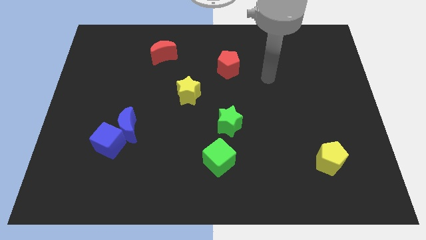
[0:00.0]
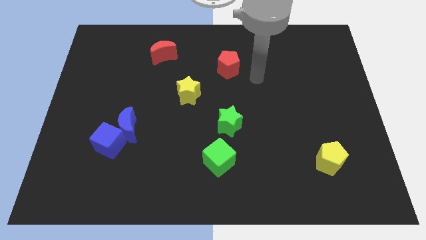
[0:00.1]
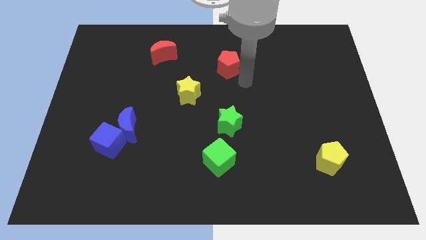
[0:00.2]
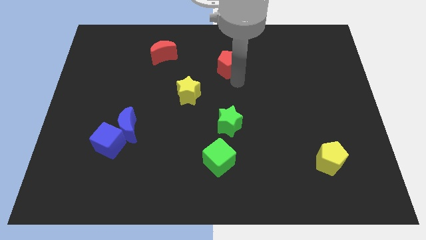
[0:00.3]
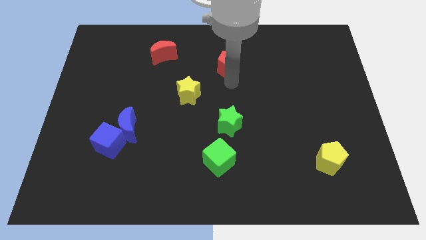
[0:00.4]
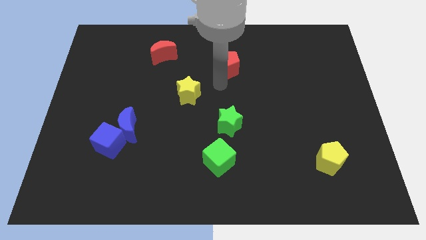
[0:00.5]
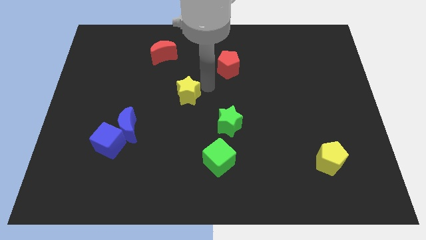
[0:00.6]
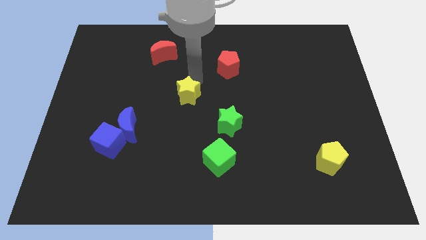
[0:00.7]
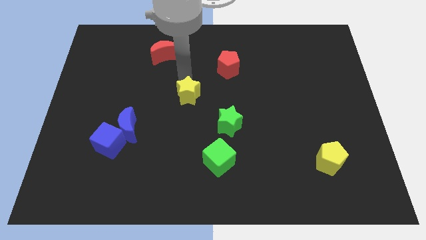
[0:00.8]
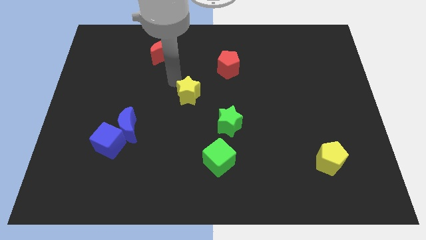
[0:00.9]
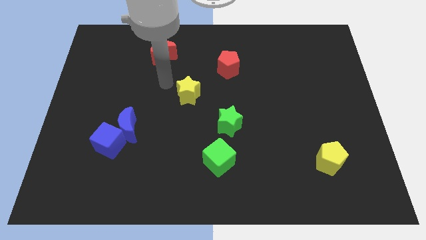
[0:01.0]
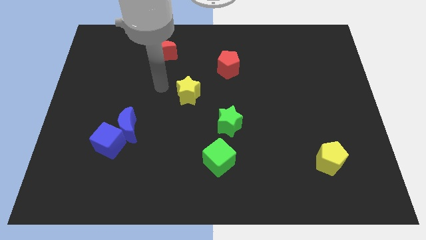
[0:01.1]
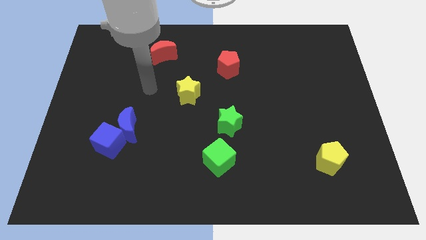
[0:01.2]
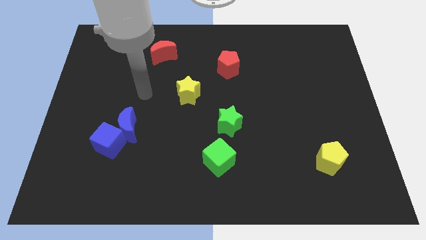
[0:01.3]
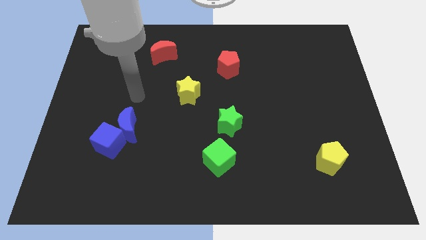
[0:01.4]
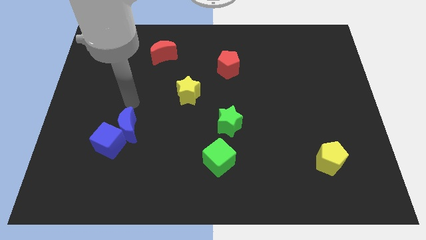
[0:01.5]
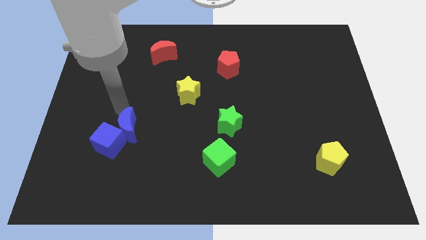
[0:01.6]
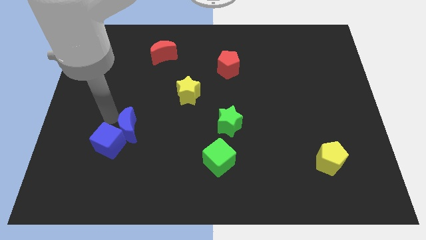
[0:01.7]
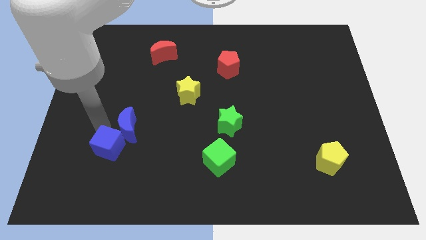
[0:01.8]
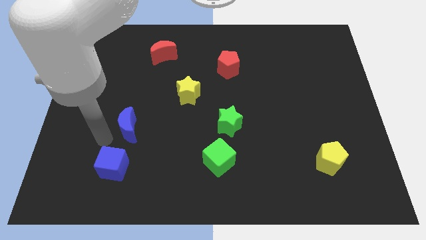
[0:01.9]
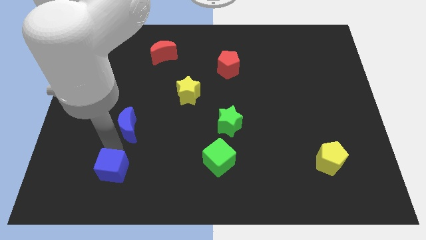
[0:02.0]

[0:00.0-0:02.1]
move the blue moon away from the blue cube

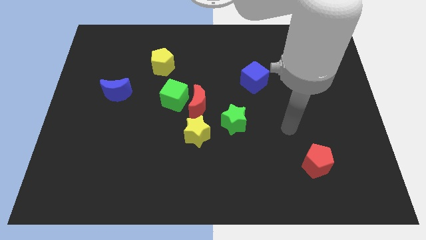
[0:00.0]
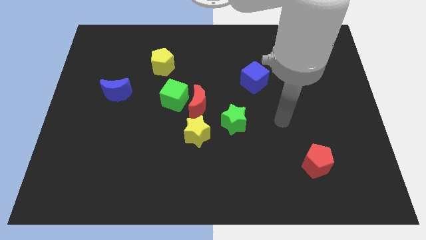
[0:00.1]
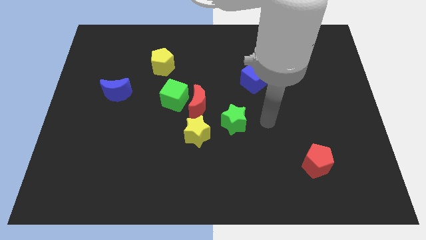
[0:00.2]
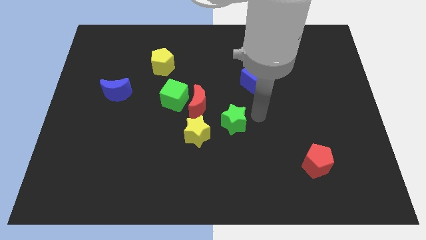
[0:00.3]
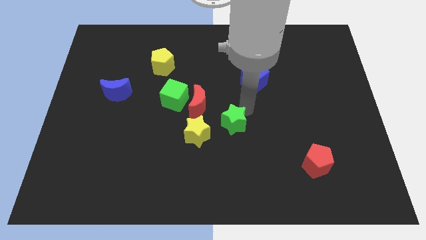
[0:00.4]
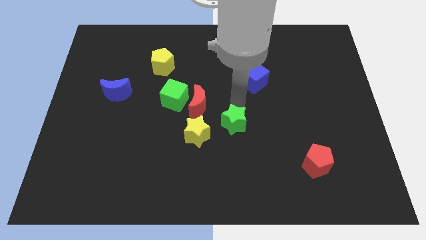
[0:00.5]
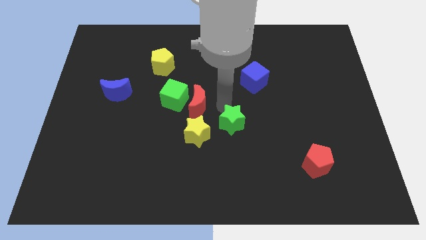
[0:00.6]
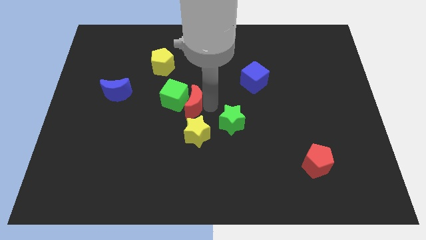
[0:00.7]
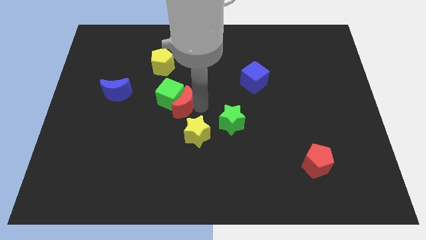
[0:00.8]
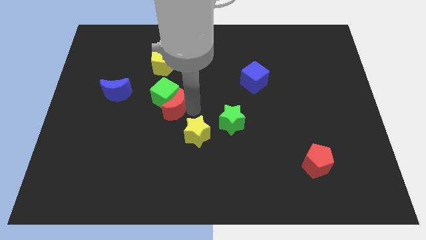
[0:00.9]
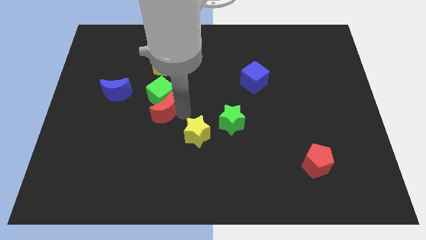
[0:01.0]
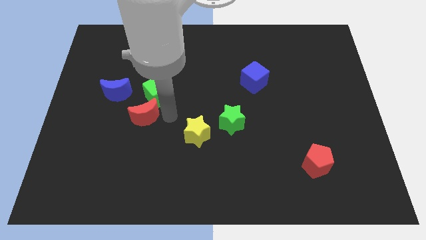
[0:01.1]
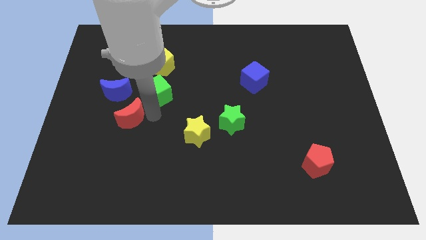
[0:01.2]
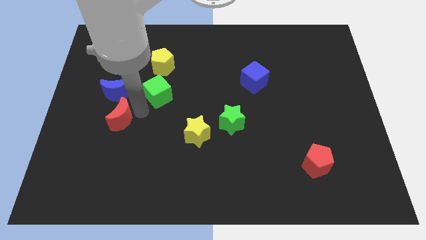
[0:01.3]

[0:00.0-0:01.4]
pull the green cube apart from the red moon

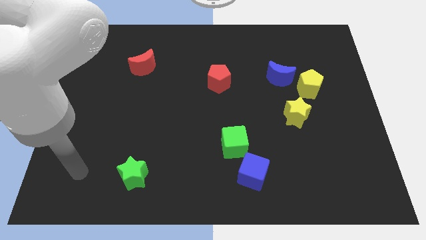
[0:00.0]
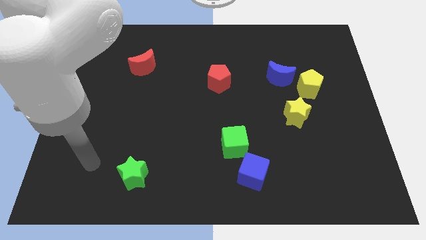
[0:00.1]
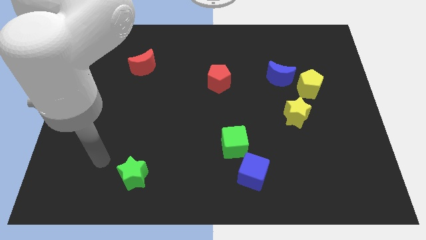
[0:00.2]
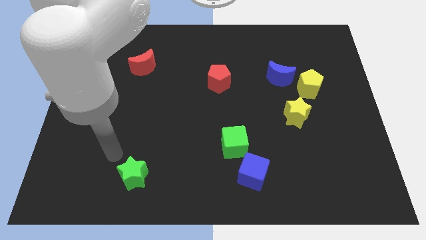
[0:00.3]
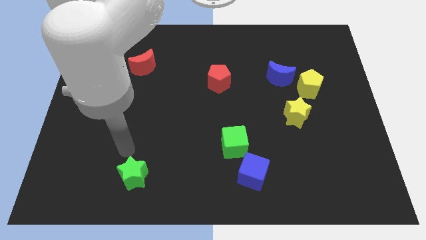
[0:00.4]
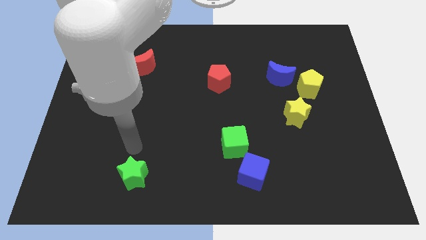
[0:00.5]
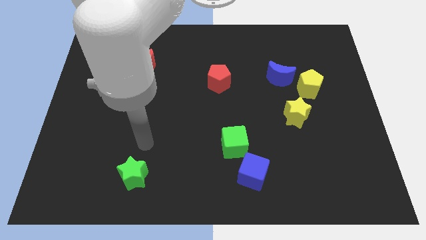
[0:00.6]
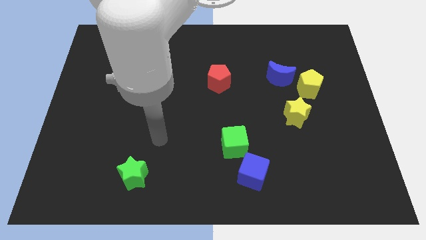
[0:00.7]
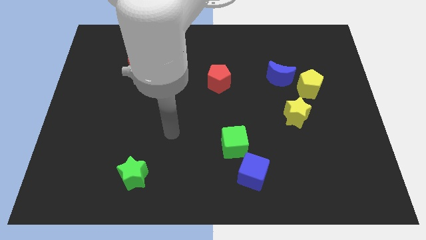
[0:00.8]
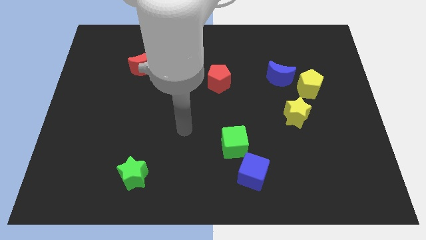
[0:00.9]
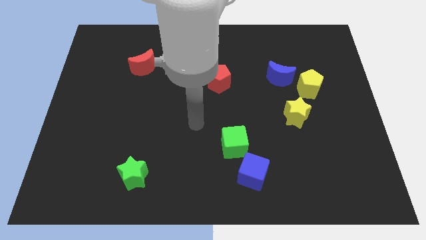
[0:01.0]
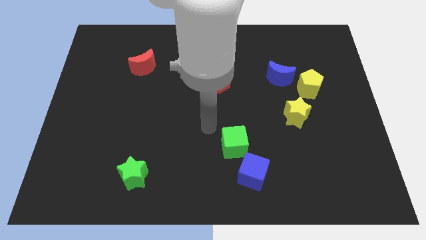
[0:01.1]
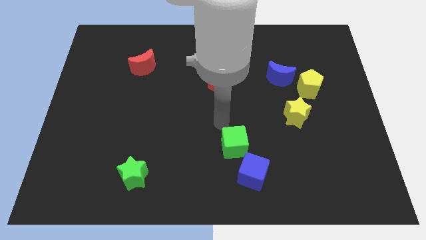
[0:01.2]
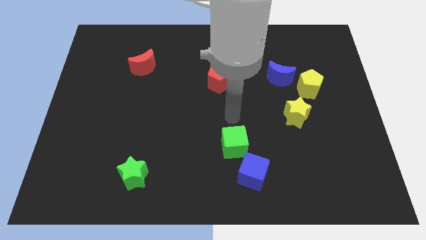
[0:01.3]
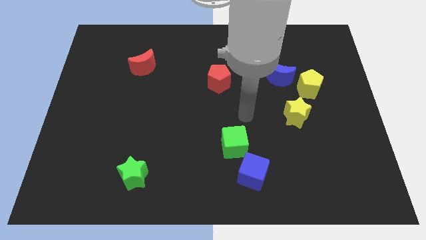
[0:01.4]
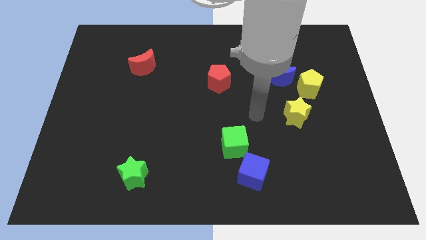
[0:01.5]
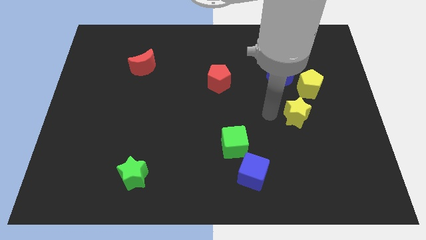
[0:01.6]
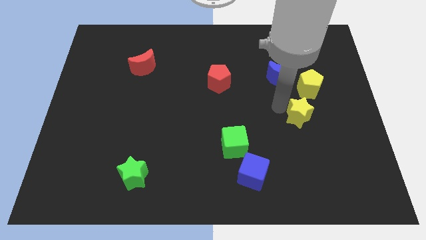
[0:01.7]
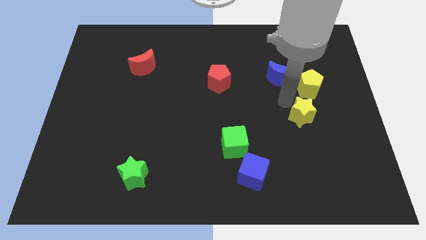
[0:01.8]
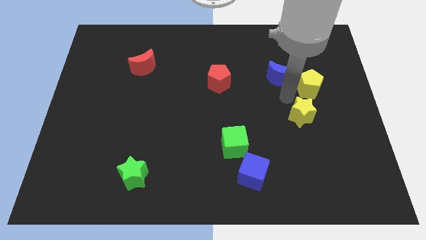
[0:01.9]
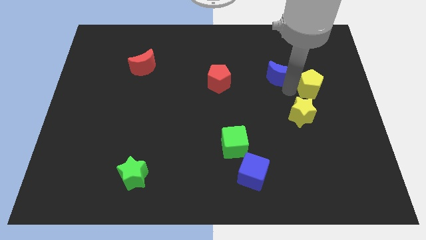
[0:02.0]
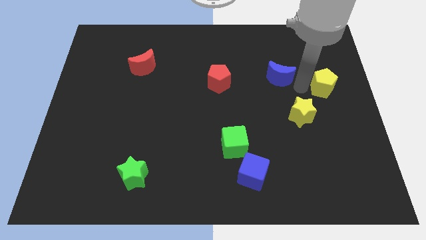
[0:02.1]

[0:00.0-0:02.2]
move the blue moon away from the yellow pentagon

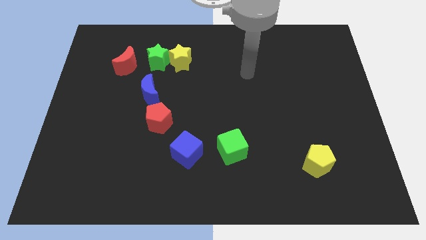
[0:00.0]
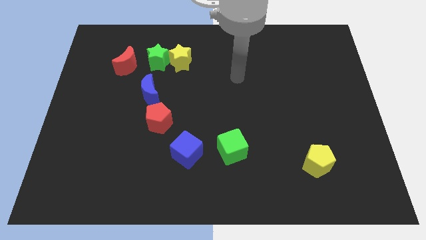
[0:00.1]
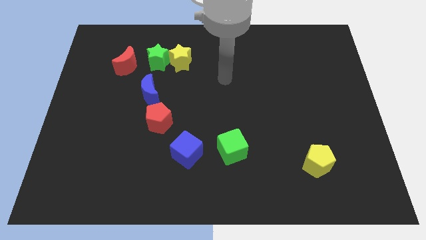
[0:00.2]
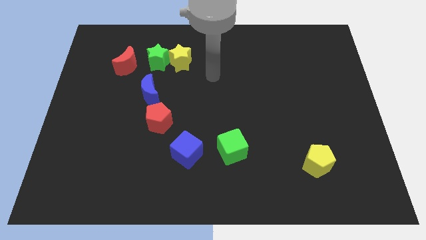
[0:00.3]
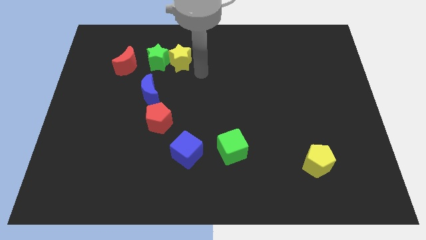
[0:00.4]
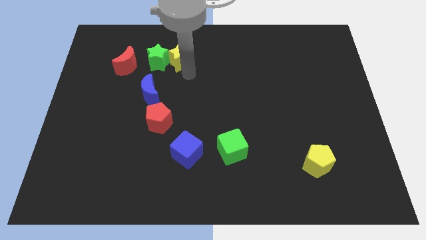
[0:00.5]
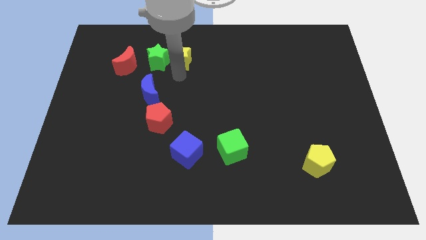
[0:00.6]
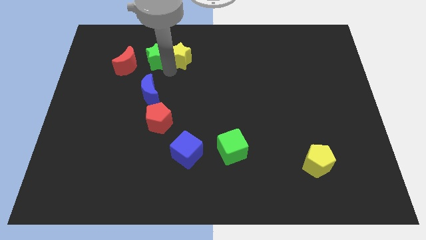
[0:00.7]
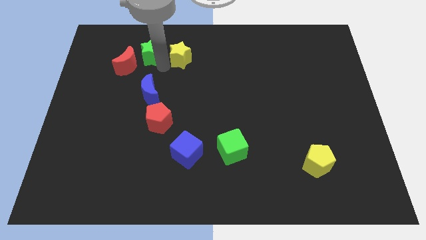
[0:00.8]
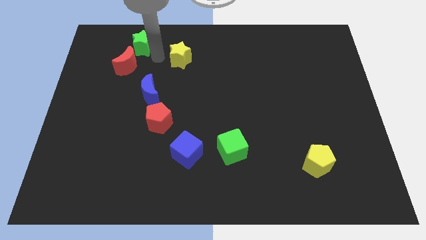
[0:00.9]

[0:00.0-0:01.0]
pull the yellow star apart from the green star

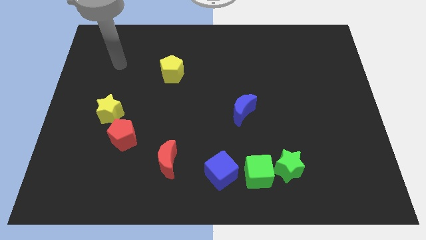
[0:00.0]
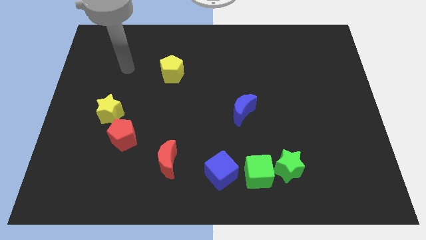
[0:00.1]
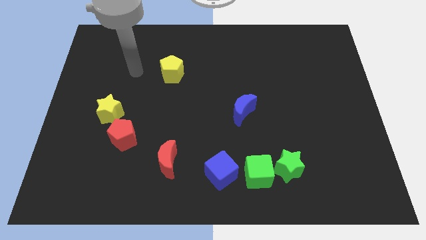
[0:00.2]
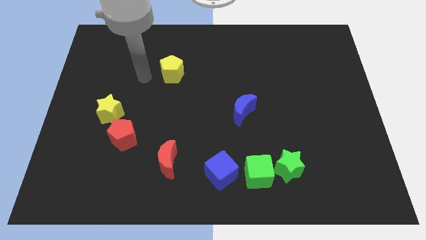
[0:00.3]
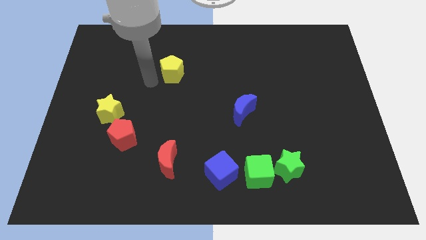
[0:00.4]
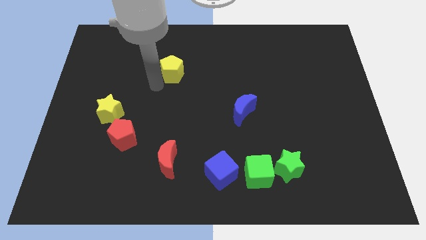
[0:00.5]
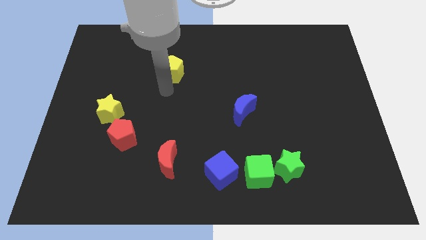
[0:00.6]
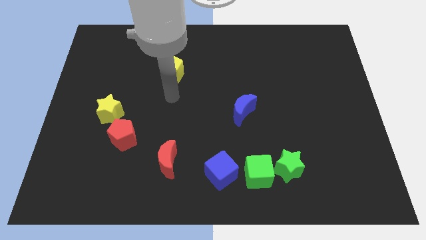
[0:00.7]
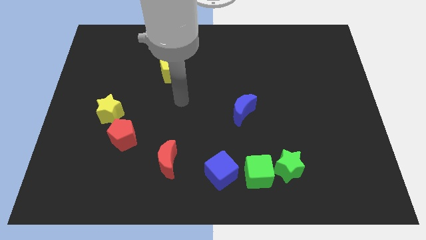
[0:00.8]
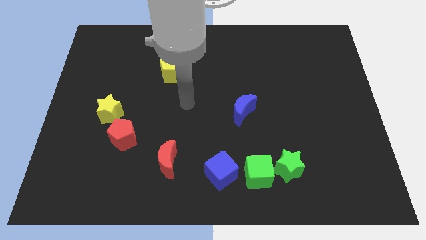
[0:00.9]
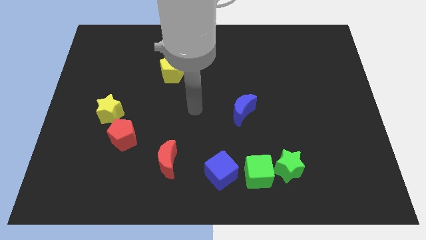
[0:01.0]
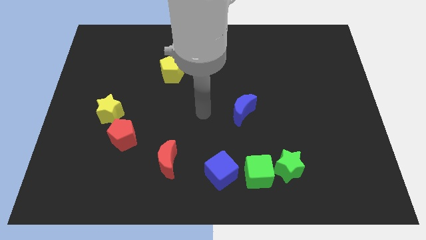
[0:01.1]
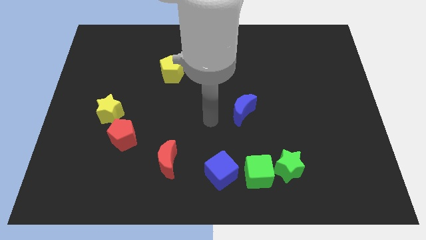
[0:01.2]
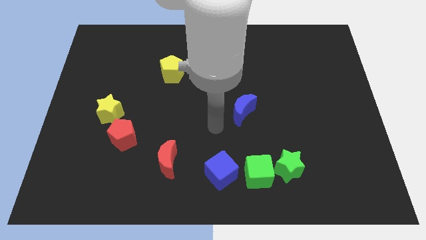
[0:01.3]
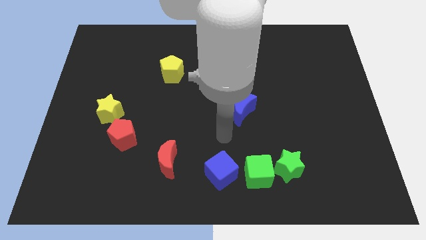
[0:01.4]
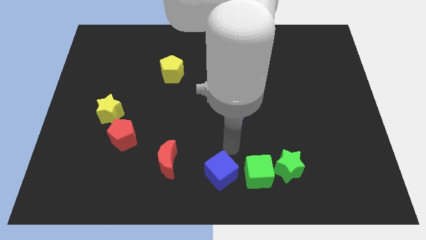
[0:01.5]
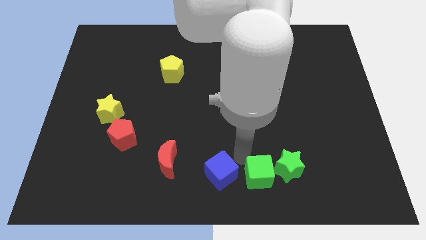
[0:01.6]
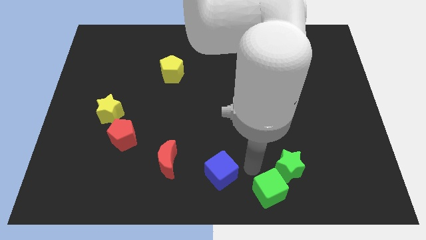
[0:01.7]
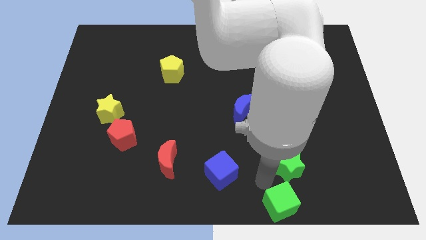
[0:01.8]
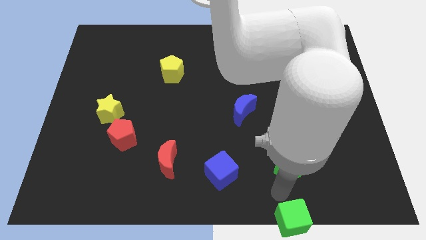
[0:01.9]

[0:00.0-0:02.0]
pull the green star apart from the green cube

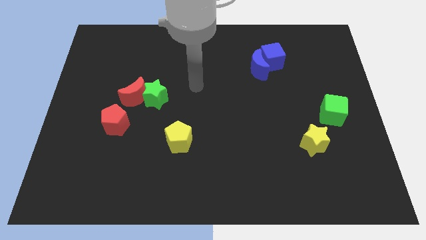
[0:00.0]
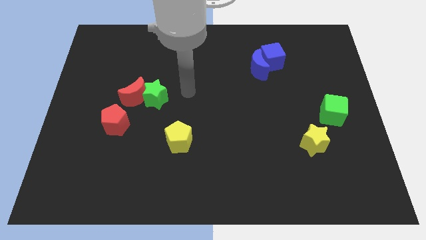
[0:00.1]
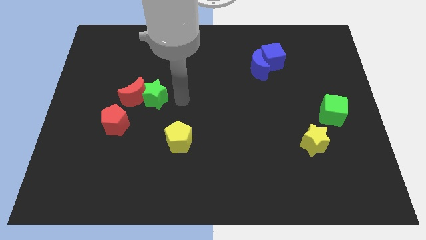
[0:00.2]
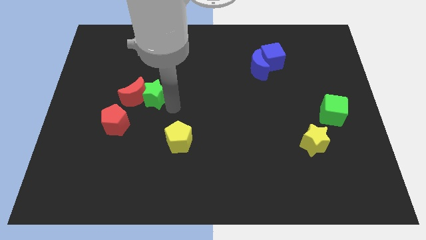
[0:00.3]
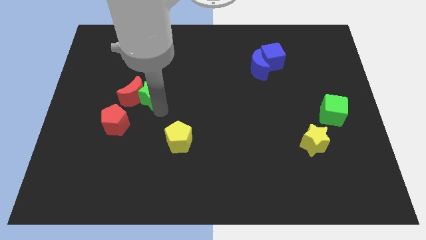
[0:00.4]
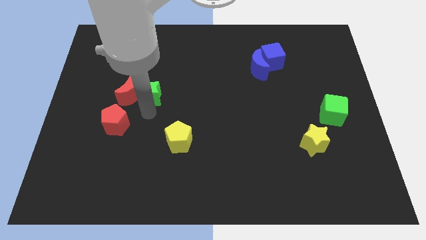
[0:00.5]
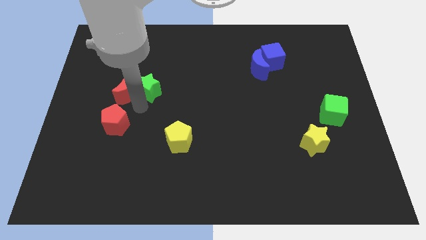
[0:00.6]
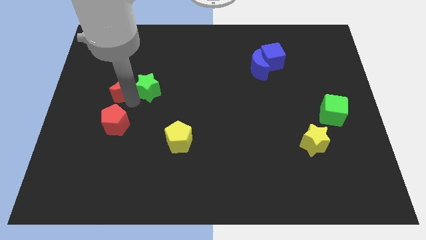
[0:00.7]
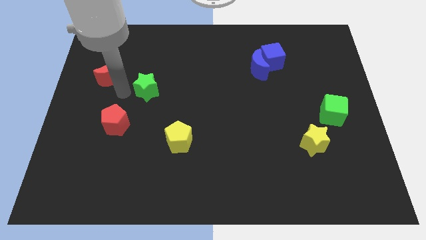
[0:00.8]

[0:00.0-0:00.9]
separate the green star from the red moon
